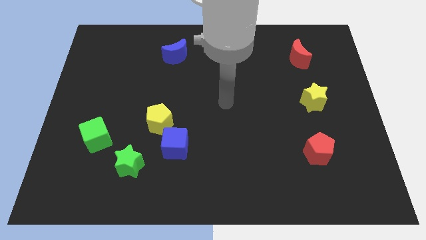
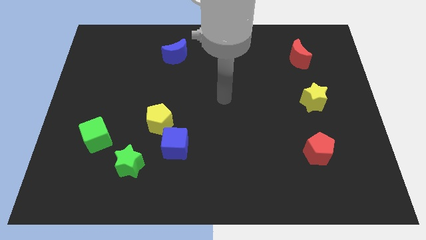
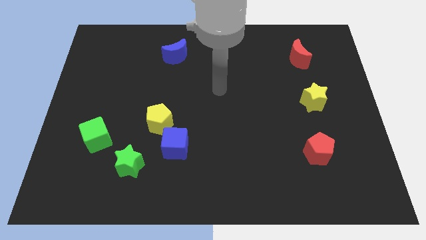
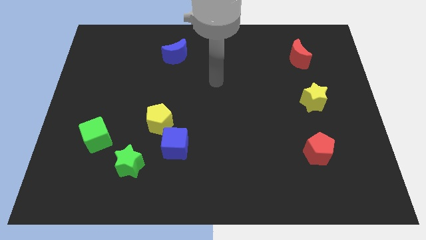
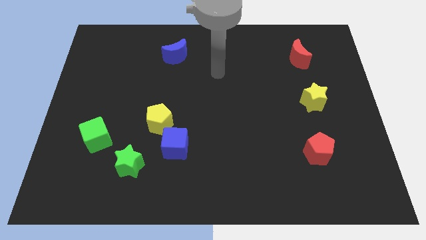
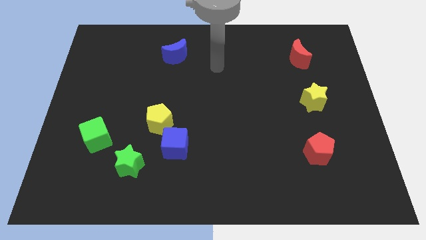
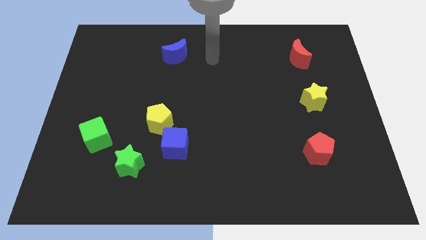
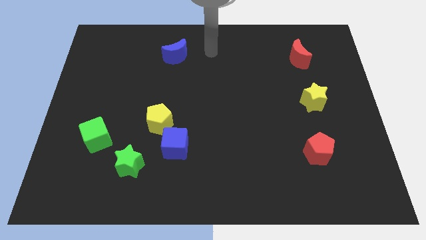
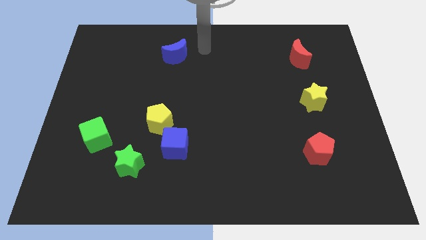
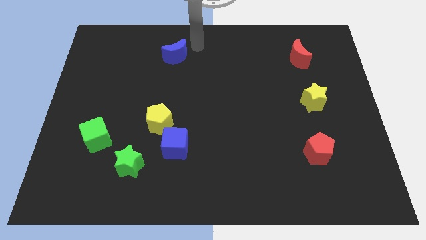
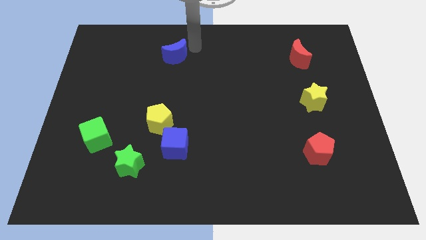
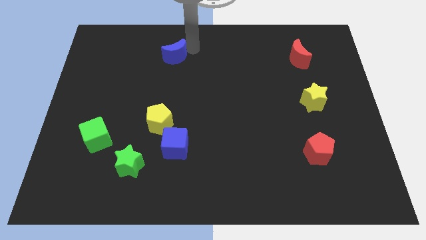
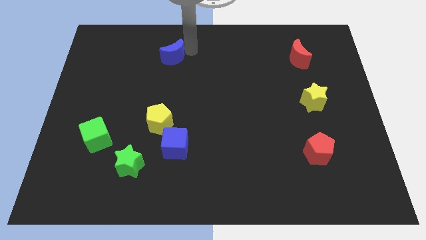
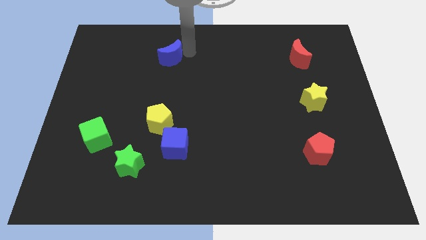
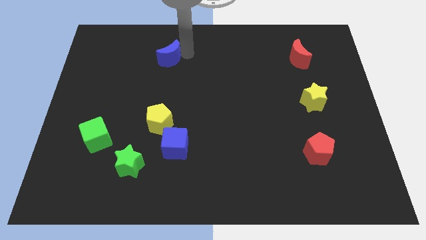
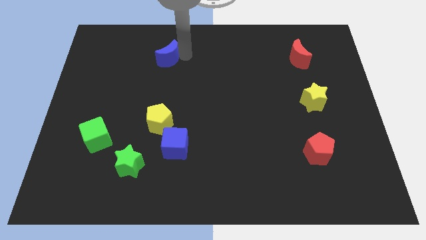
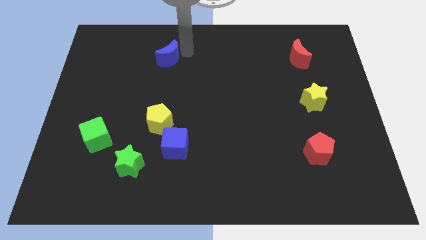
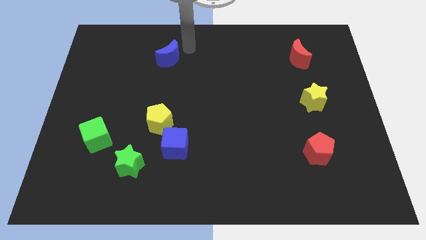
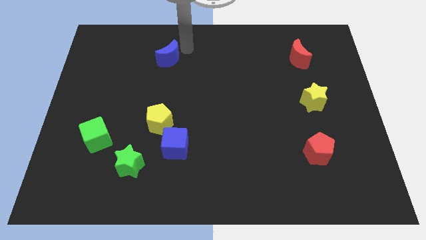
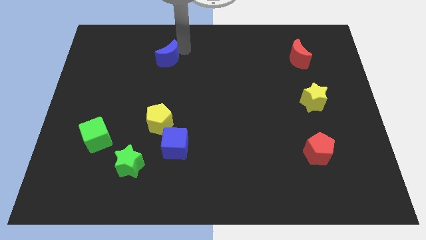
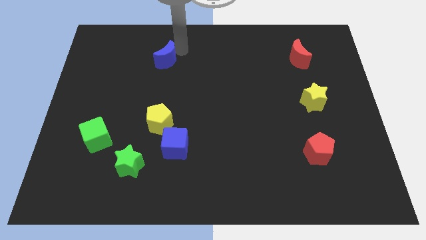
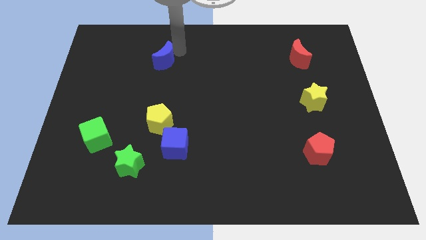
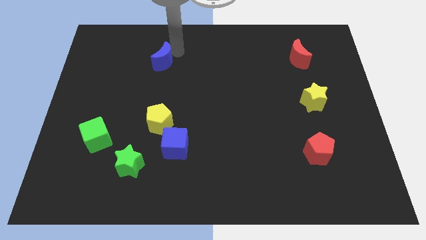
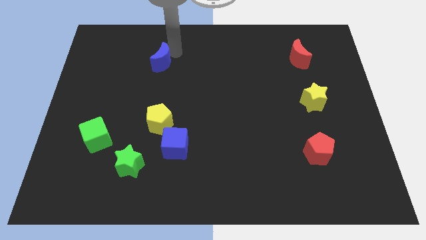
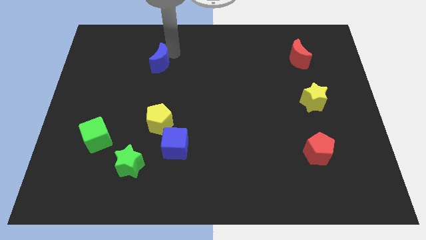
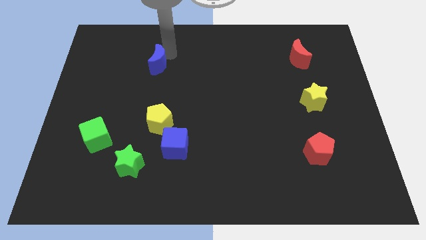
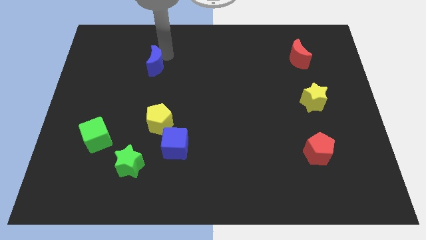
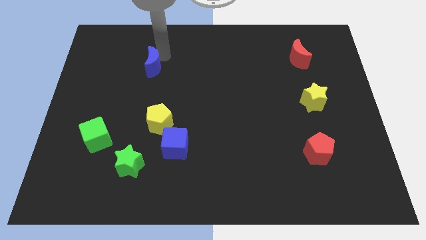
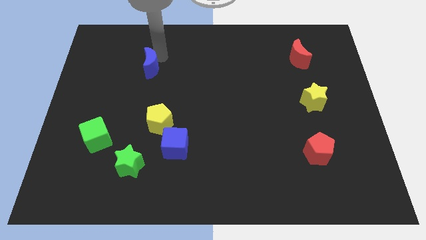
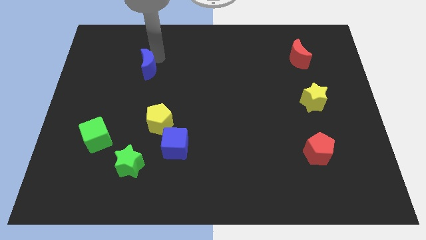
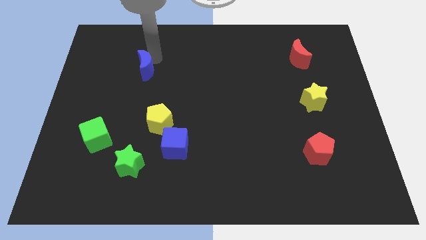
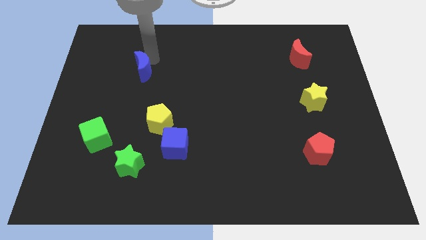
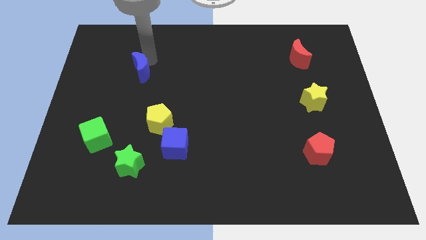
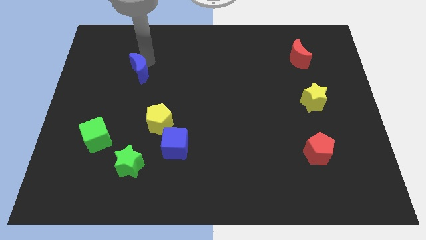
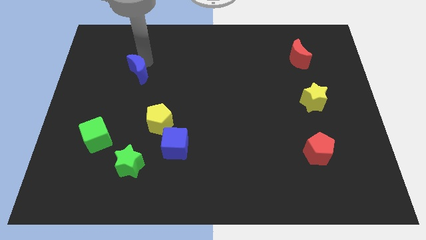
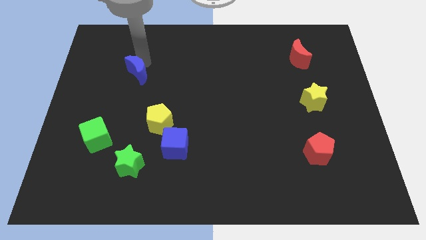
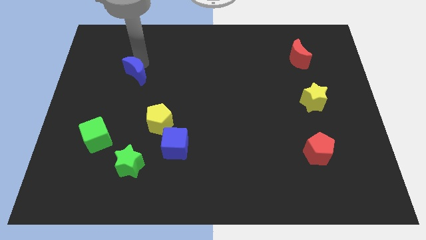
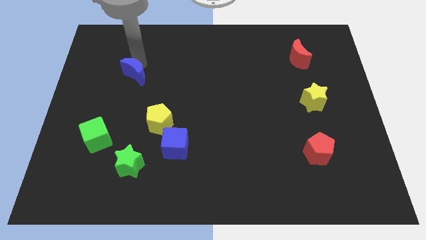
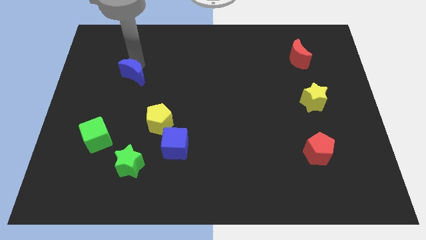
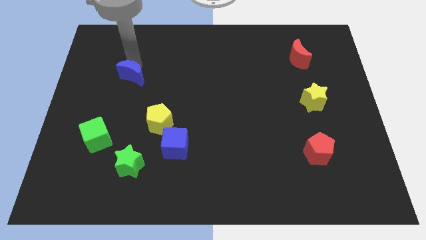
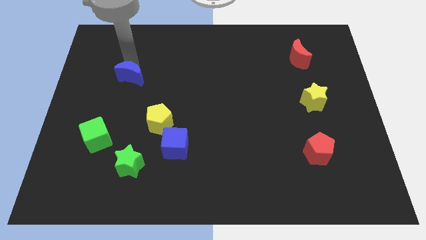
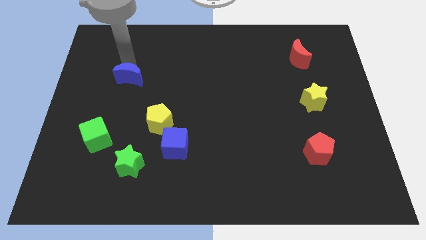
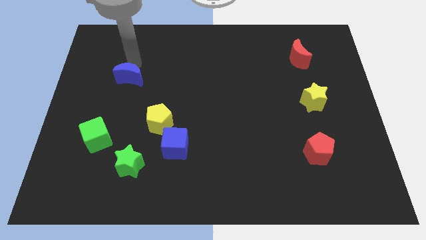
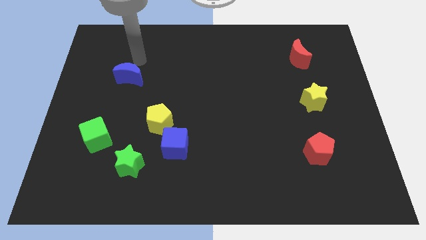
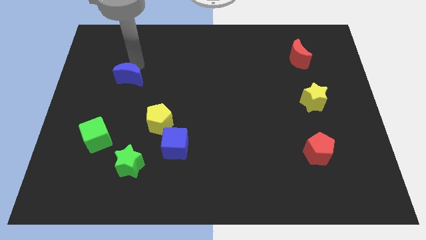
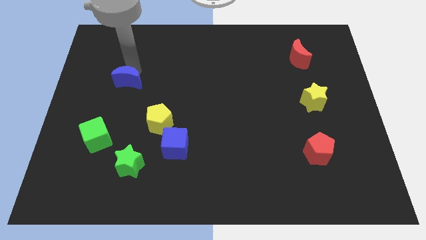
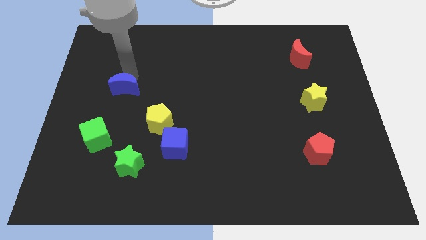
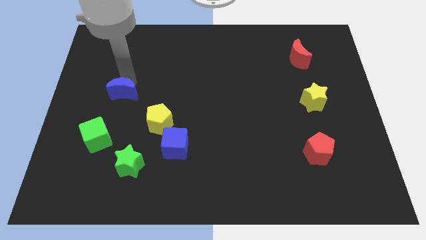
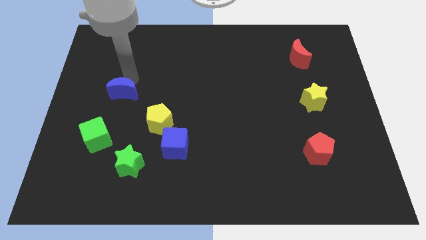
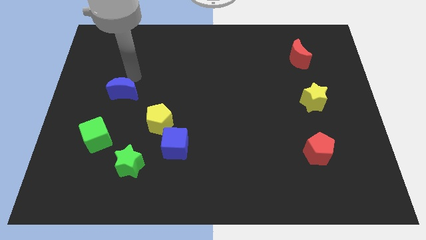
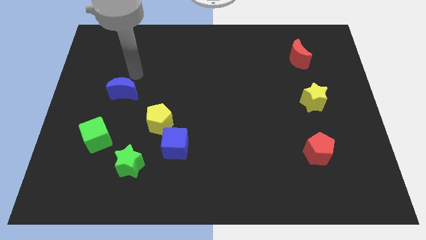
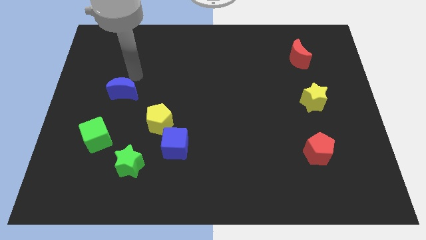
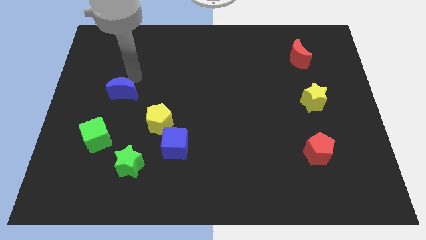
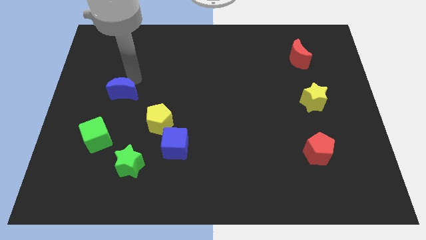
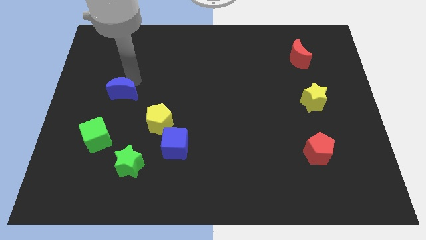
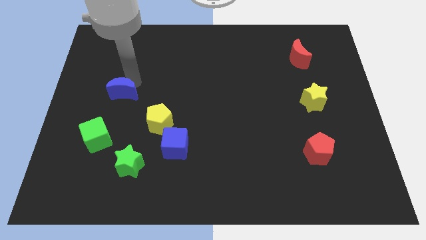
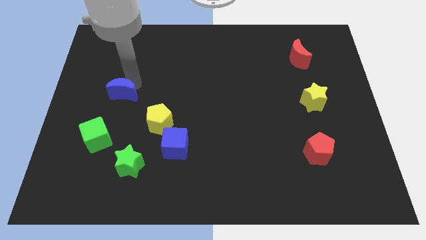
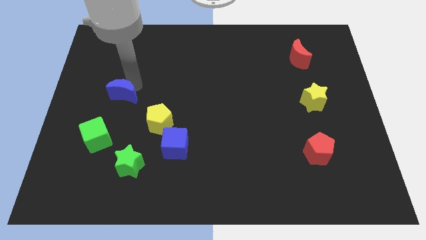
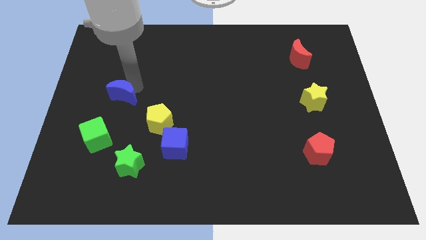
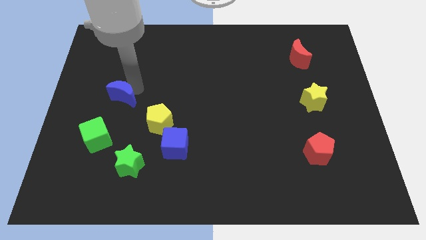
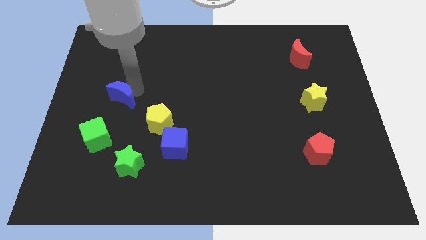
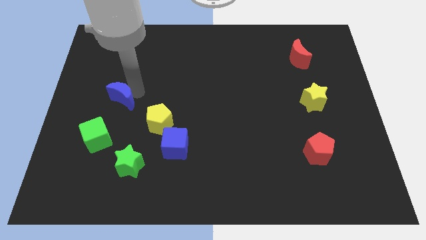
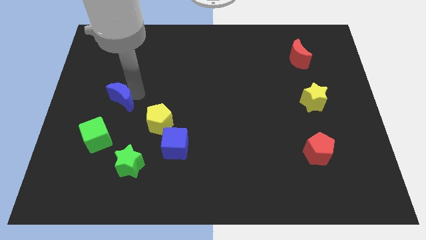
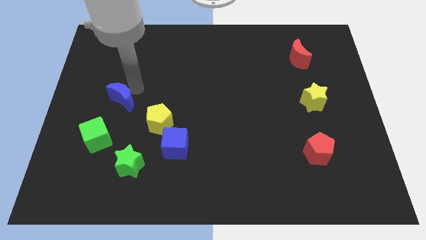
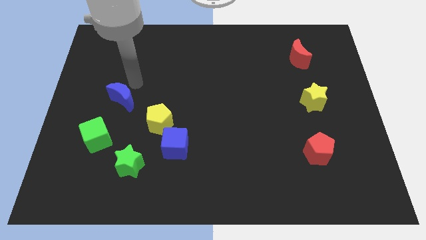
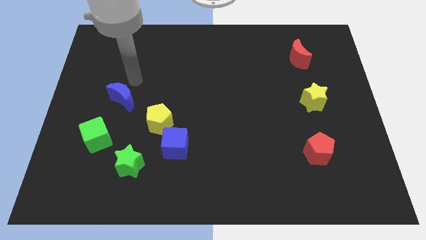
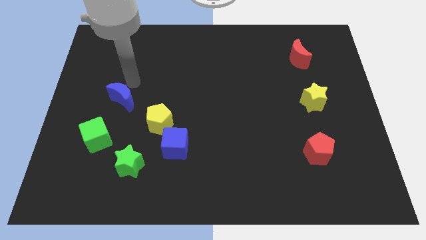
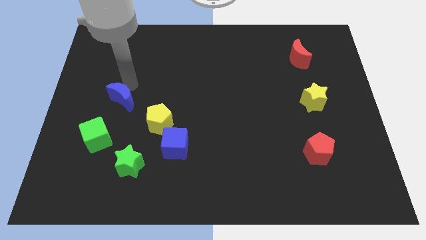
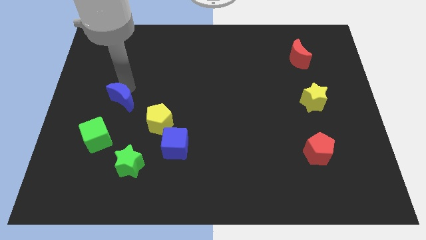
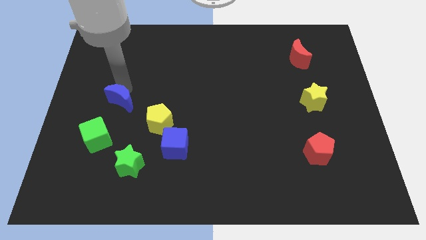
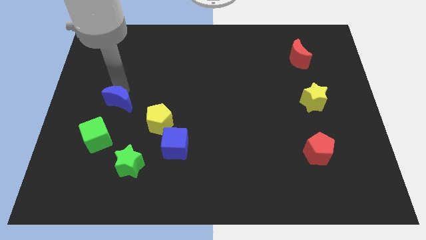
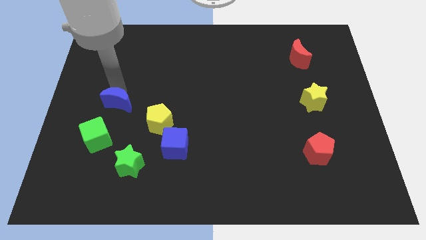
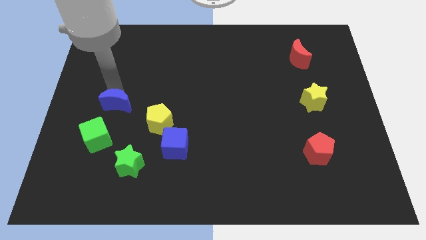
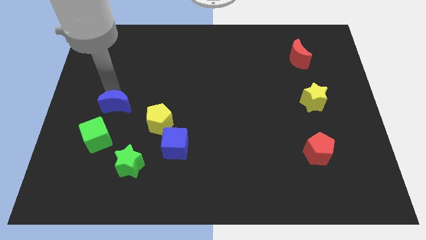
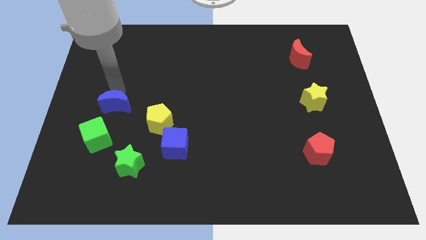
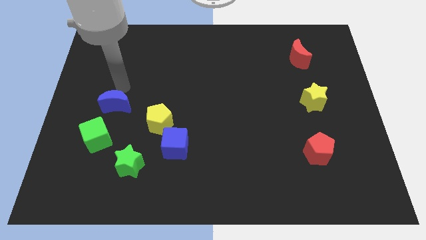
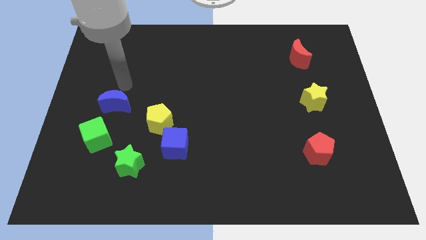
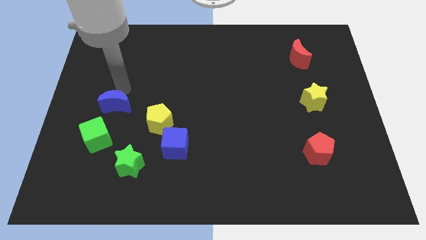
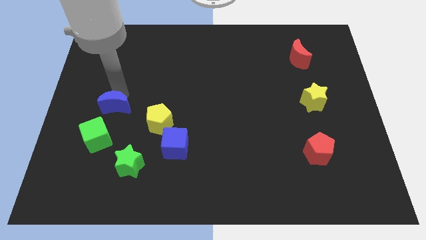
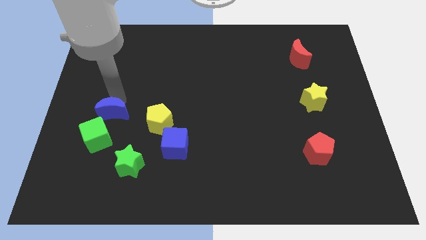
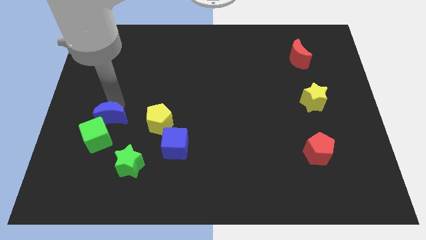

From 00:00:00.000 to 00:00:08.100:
push the blue moon close to the green cube
